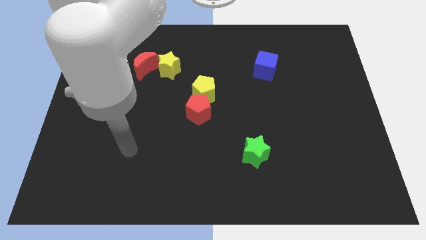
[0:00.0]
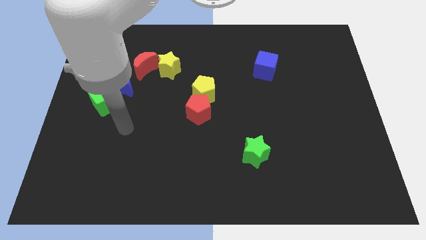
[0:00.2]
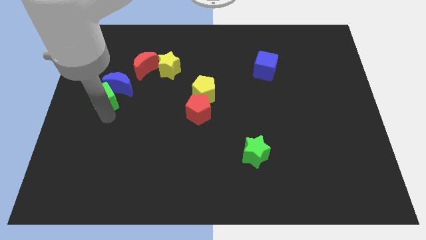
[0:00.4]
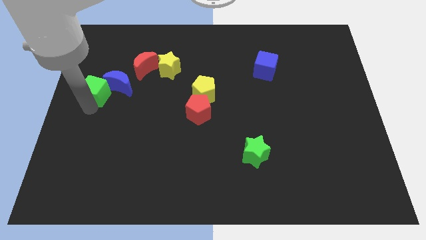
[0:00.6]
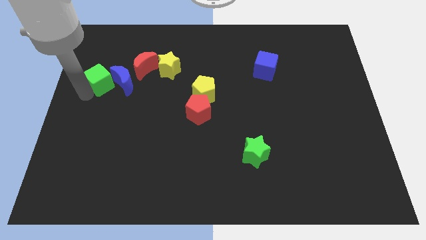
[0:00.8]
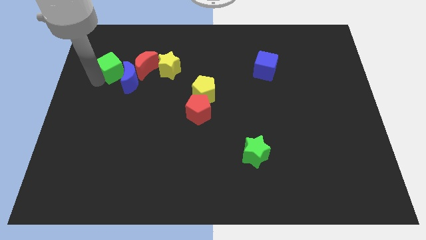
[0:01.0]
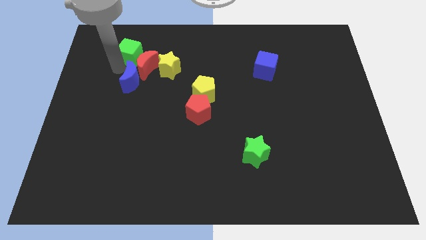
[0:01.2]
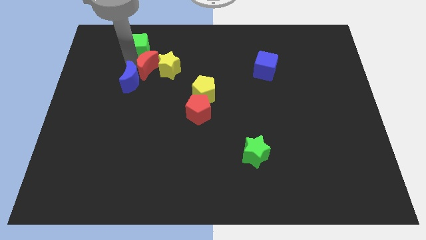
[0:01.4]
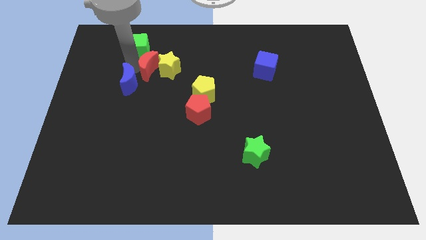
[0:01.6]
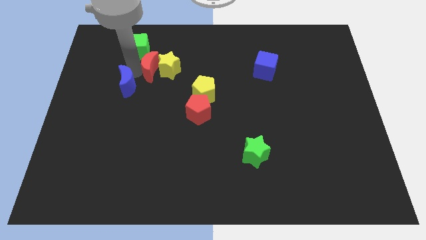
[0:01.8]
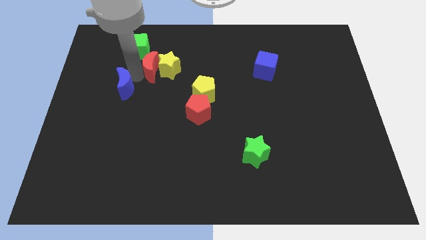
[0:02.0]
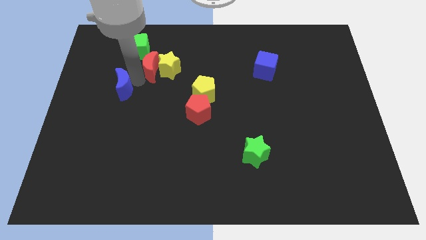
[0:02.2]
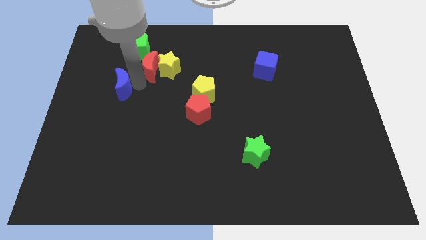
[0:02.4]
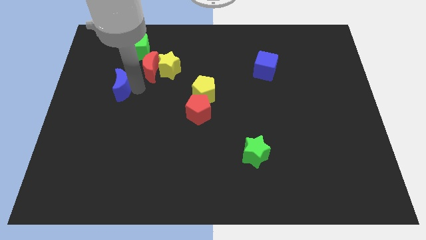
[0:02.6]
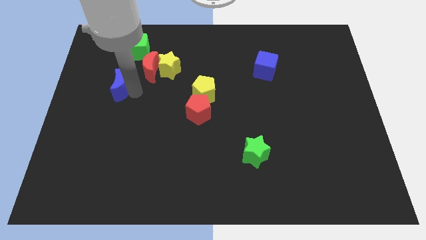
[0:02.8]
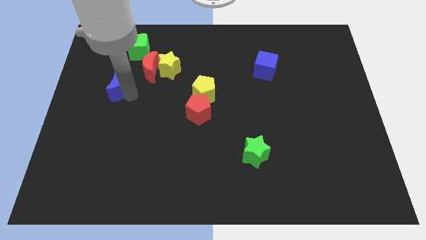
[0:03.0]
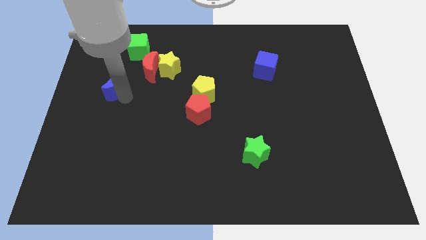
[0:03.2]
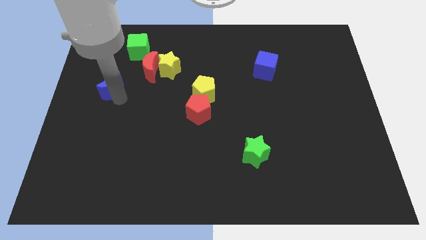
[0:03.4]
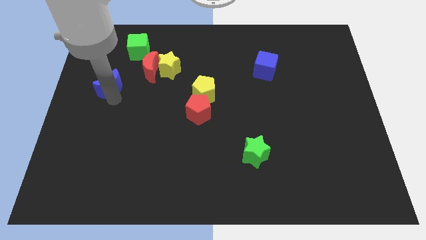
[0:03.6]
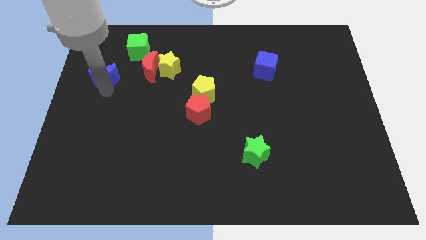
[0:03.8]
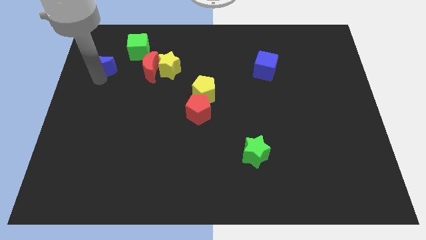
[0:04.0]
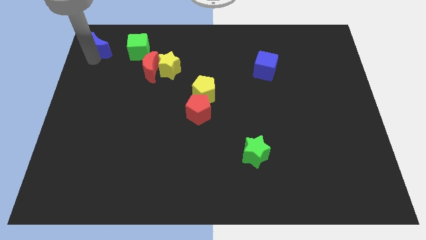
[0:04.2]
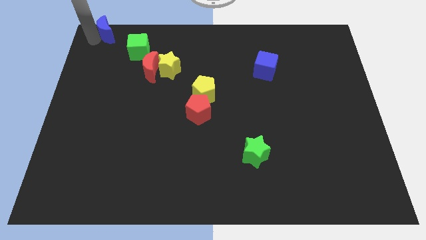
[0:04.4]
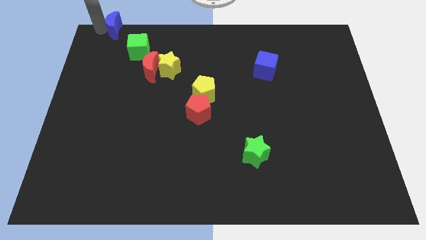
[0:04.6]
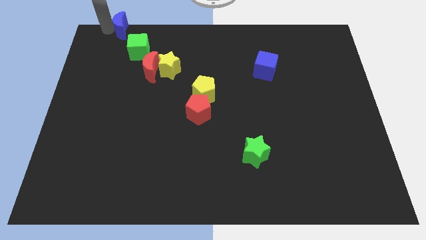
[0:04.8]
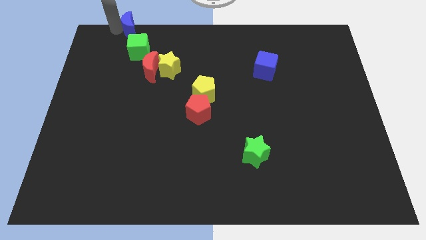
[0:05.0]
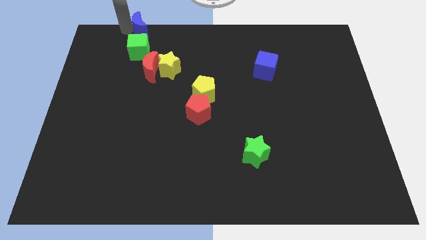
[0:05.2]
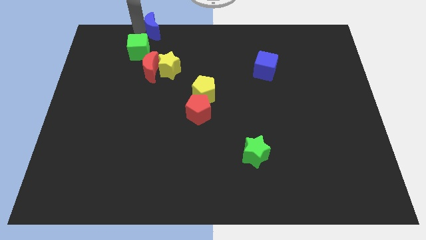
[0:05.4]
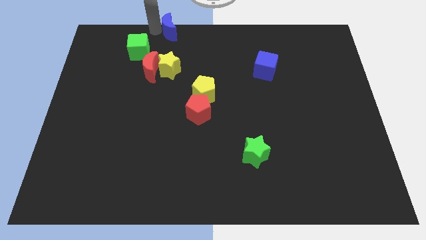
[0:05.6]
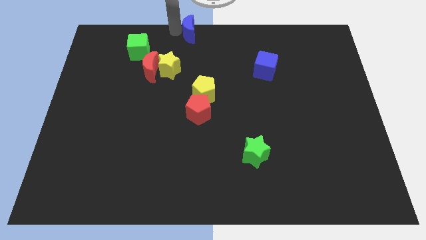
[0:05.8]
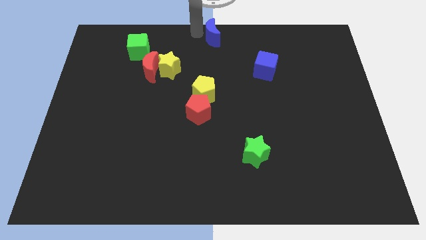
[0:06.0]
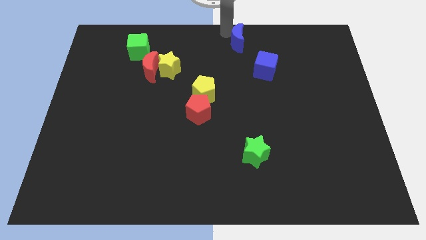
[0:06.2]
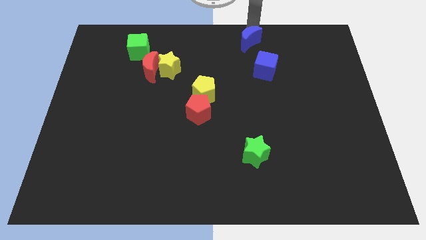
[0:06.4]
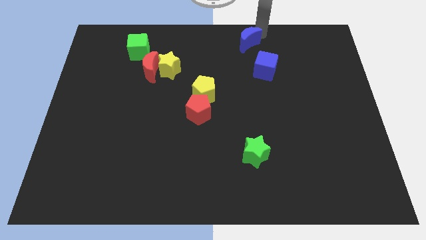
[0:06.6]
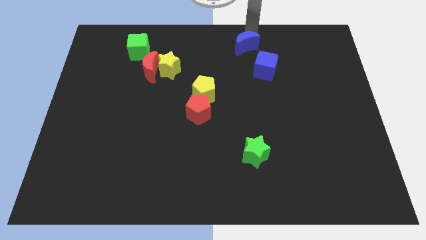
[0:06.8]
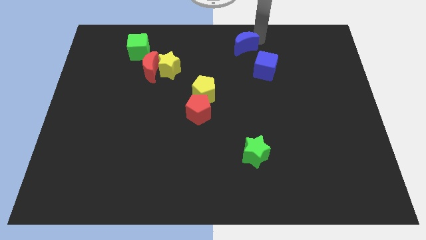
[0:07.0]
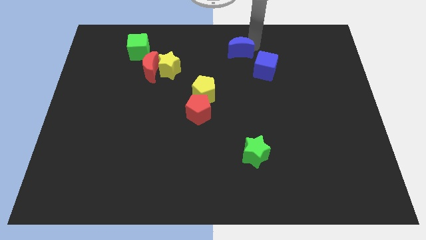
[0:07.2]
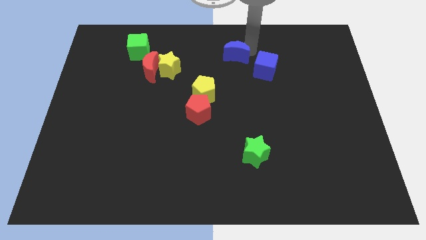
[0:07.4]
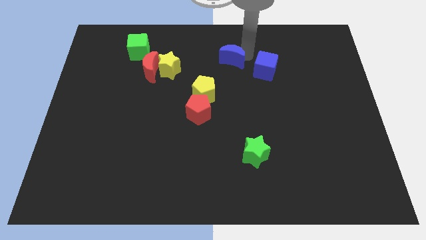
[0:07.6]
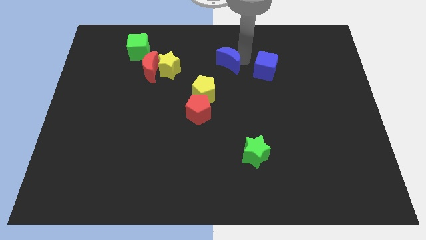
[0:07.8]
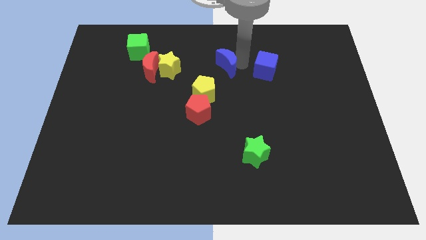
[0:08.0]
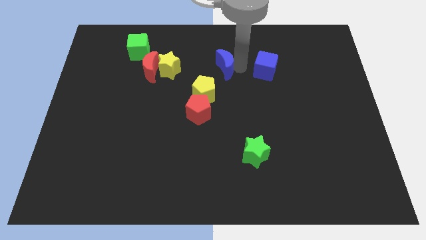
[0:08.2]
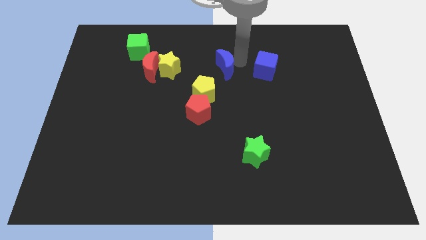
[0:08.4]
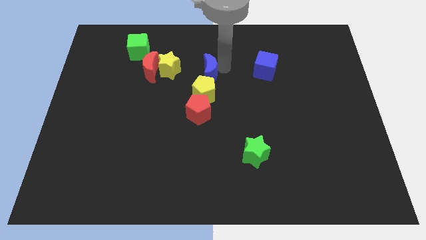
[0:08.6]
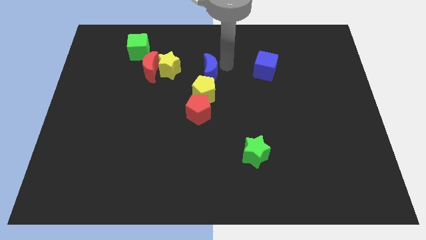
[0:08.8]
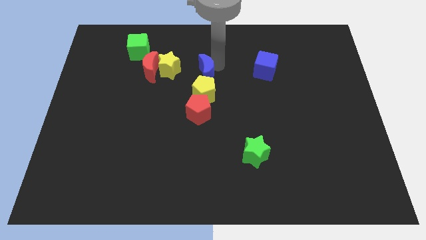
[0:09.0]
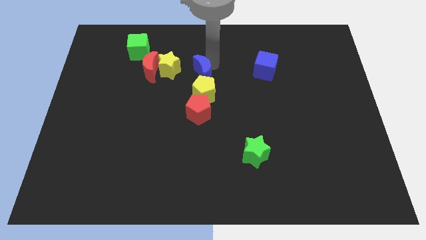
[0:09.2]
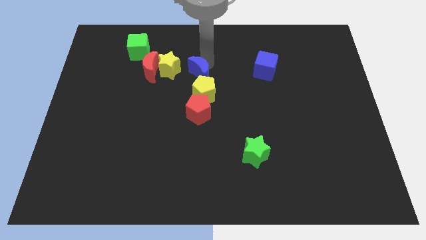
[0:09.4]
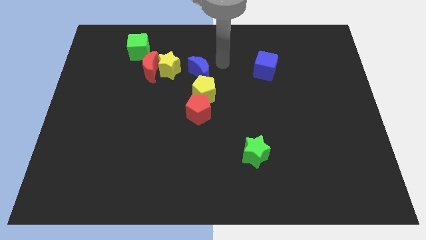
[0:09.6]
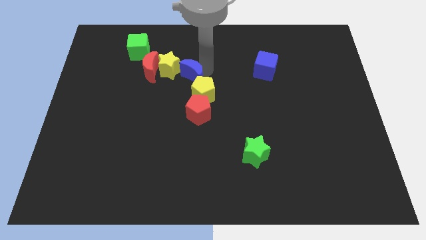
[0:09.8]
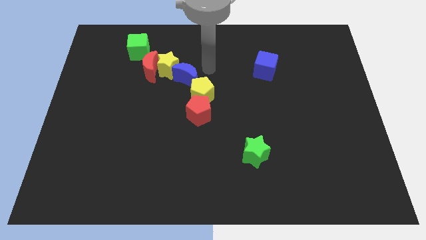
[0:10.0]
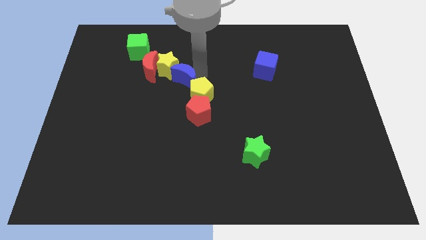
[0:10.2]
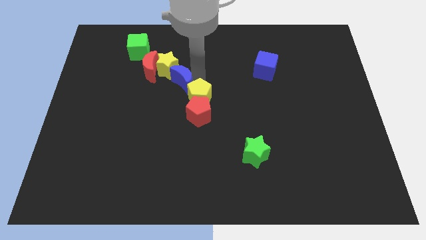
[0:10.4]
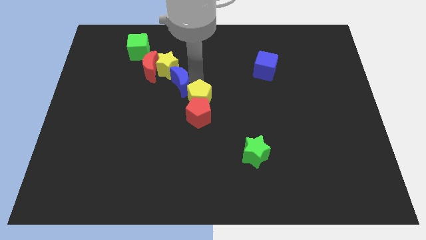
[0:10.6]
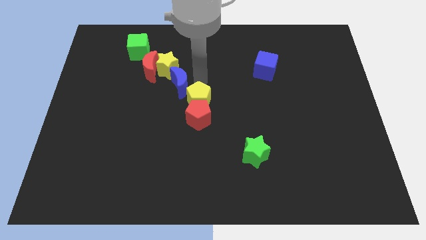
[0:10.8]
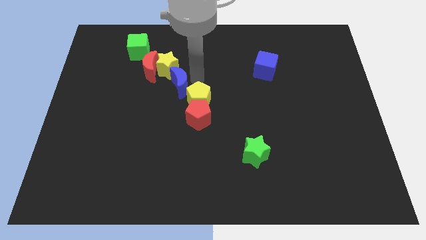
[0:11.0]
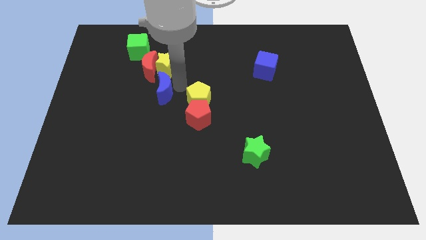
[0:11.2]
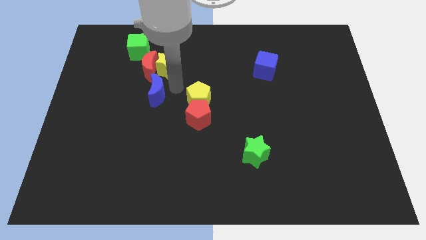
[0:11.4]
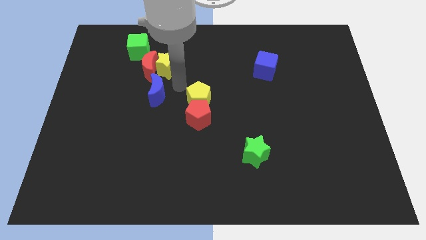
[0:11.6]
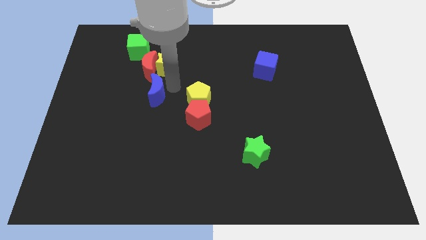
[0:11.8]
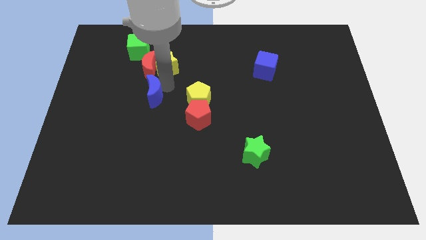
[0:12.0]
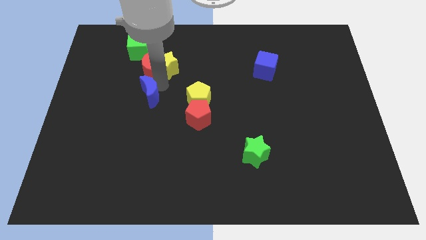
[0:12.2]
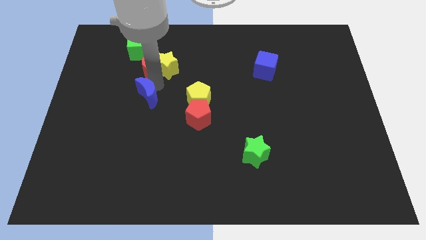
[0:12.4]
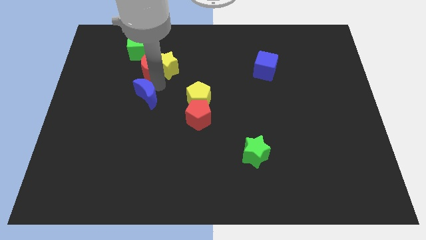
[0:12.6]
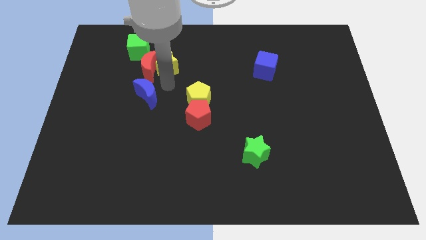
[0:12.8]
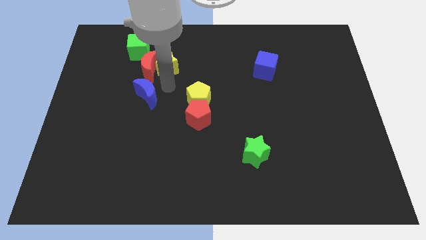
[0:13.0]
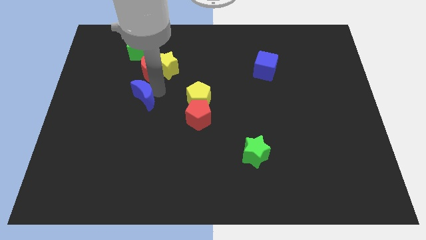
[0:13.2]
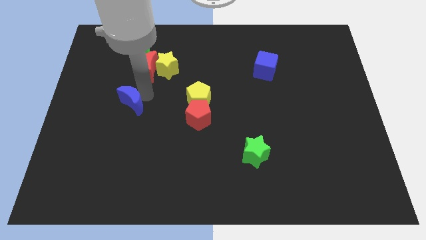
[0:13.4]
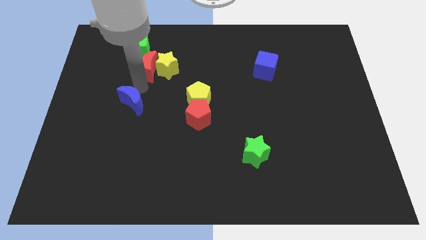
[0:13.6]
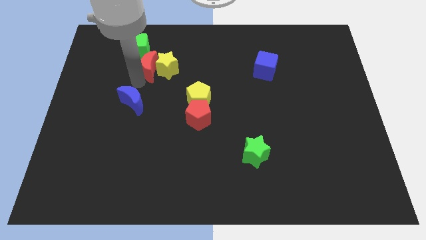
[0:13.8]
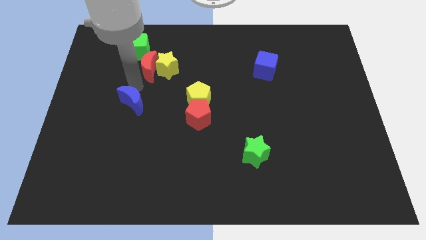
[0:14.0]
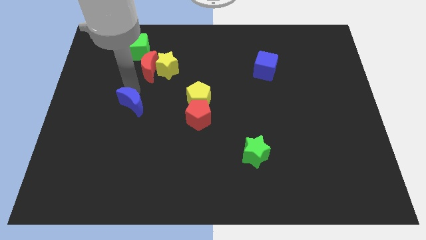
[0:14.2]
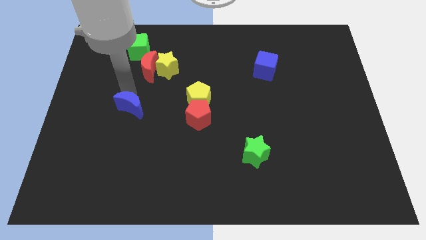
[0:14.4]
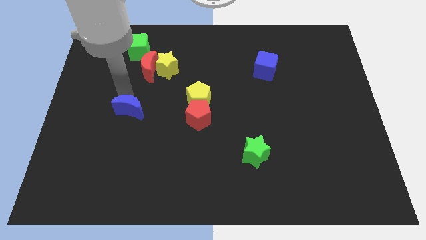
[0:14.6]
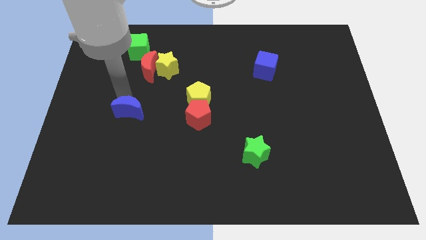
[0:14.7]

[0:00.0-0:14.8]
slightly slide the blue moon down

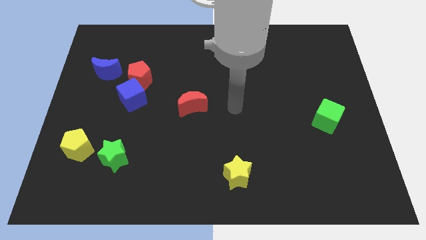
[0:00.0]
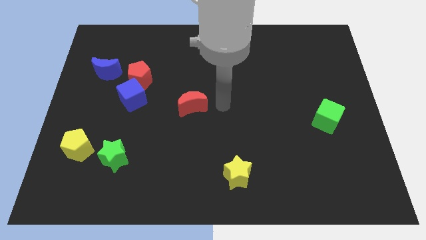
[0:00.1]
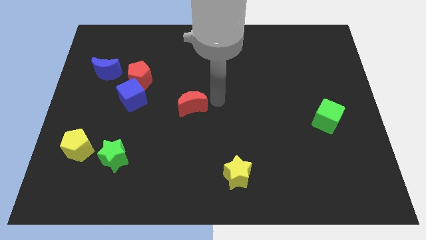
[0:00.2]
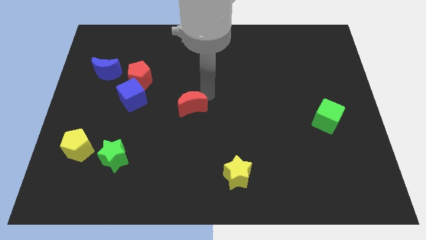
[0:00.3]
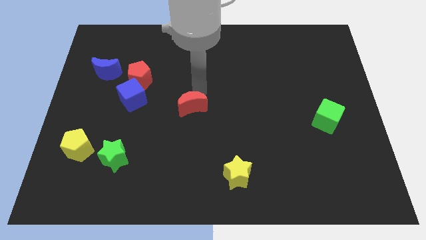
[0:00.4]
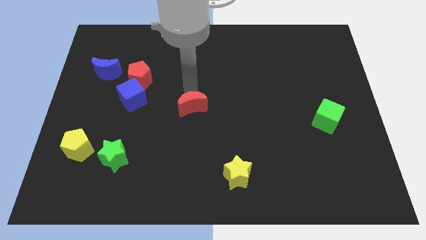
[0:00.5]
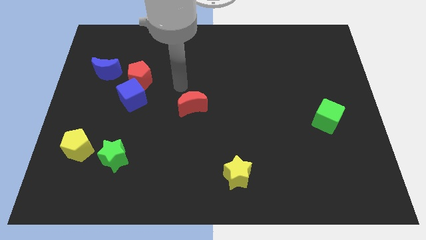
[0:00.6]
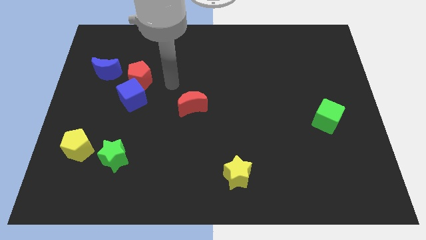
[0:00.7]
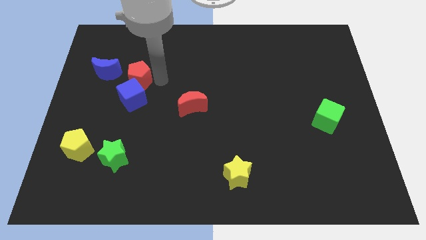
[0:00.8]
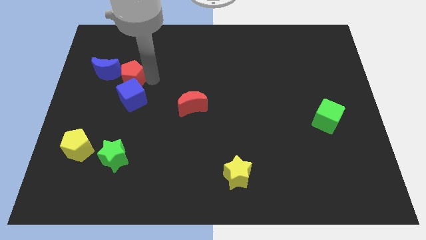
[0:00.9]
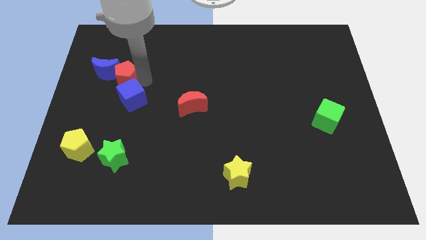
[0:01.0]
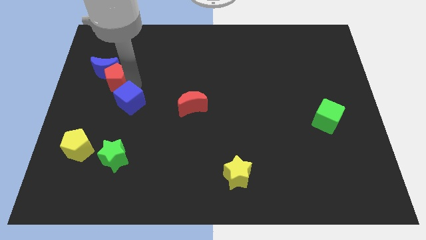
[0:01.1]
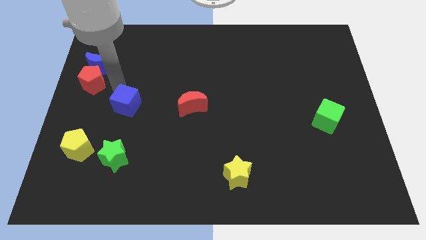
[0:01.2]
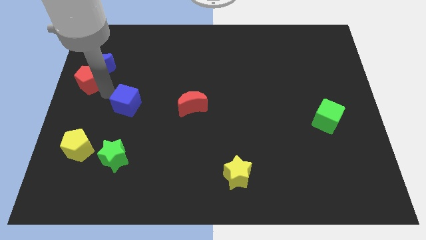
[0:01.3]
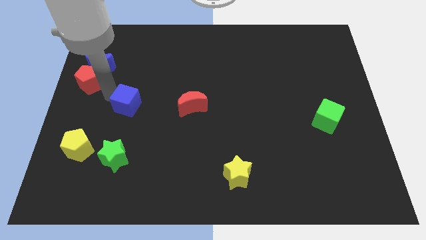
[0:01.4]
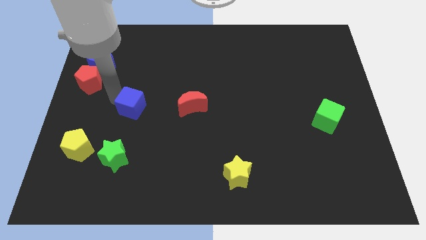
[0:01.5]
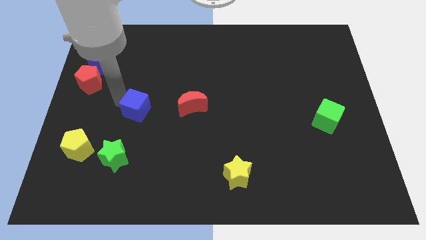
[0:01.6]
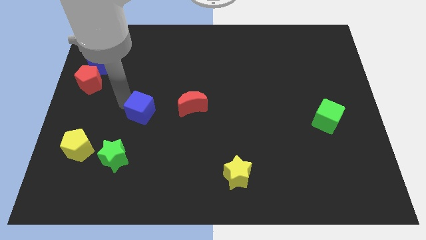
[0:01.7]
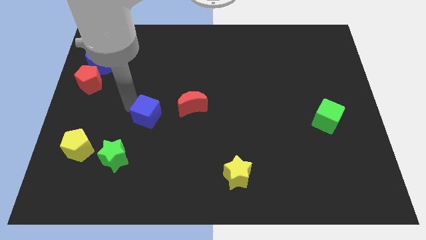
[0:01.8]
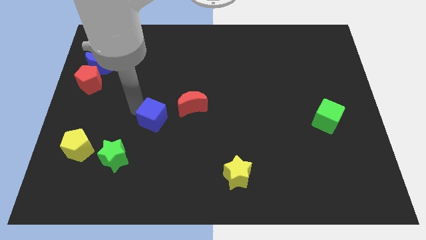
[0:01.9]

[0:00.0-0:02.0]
slightly move the blue cube downwards and right diagonally
